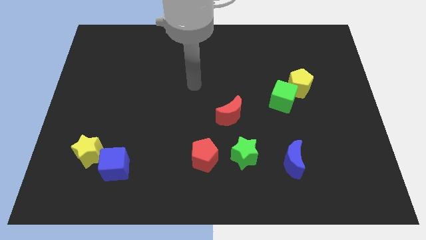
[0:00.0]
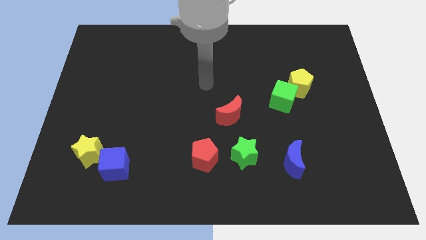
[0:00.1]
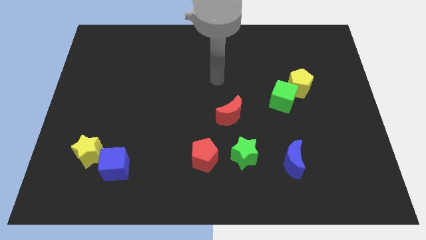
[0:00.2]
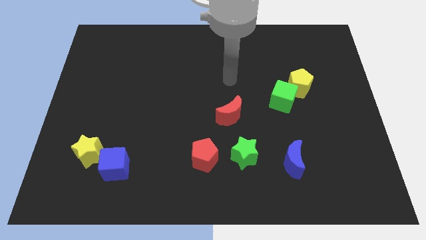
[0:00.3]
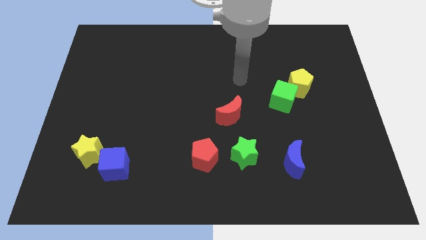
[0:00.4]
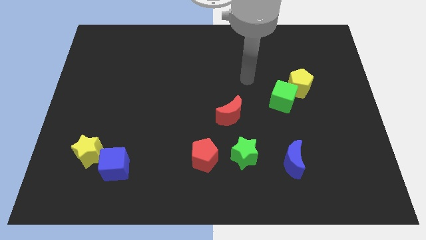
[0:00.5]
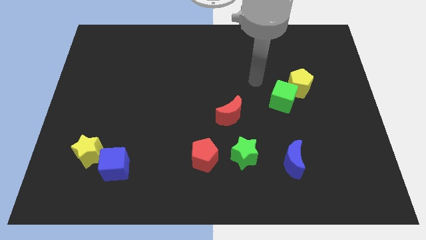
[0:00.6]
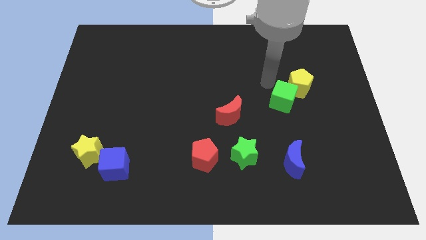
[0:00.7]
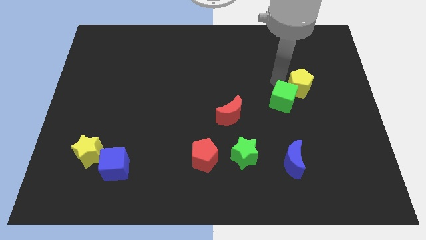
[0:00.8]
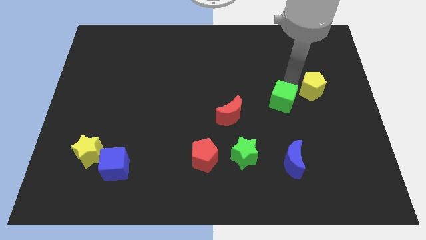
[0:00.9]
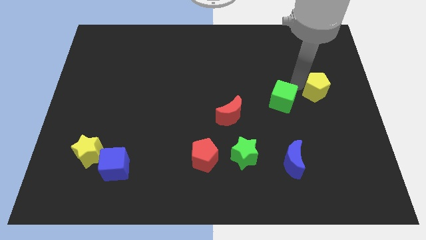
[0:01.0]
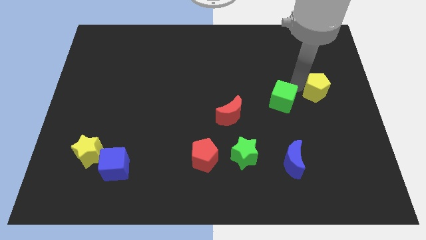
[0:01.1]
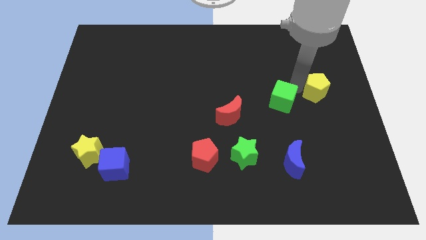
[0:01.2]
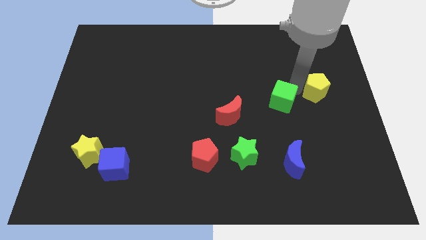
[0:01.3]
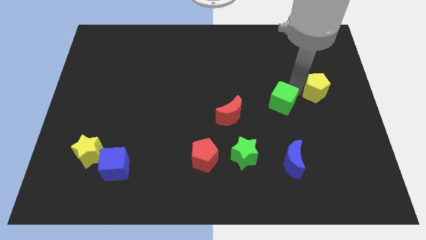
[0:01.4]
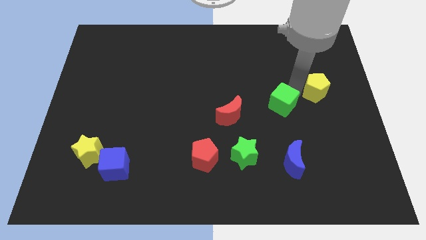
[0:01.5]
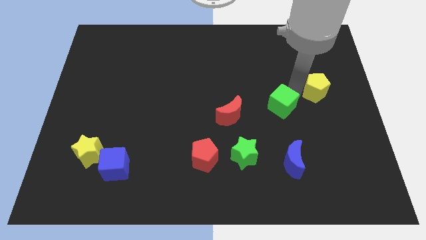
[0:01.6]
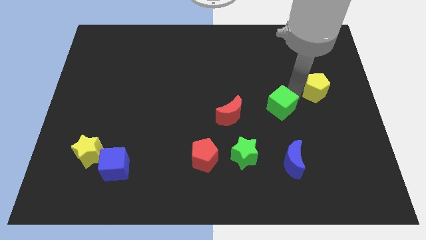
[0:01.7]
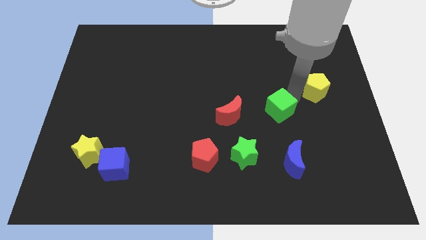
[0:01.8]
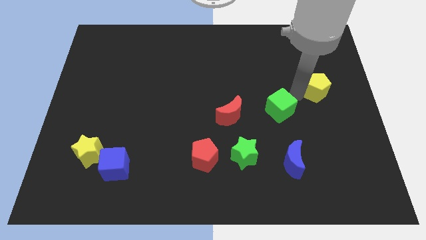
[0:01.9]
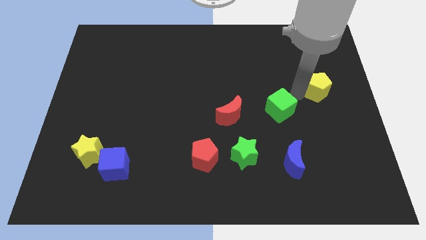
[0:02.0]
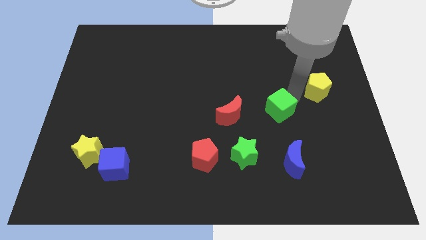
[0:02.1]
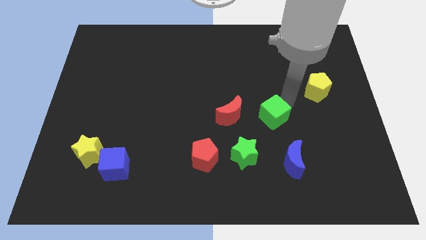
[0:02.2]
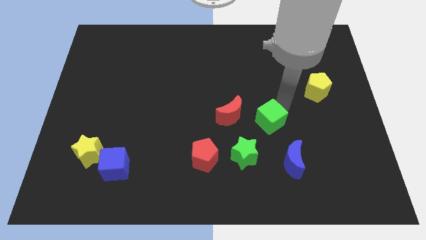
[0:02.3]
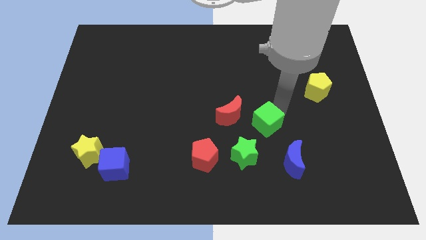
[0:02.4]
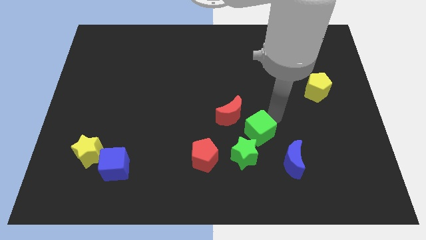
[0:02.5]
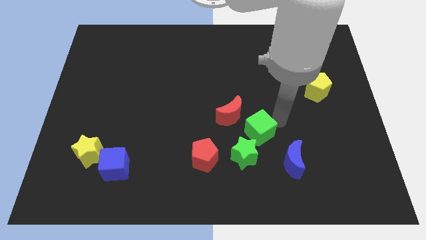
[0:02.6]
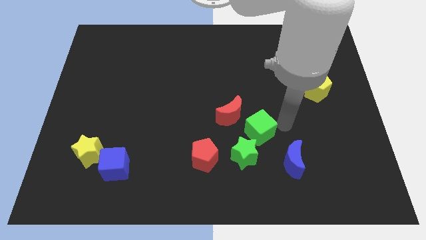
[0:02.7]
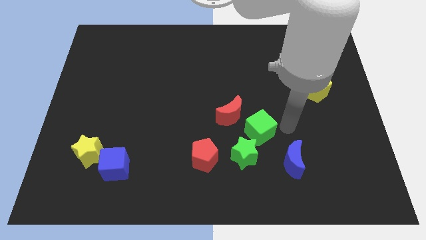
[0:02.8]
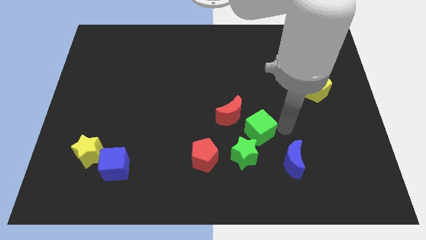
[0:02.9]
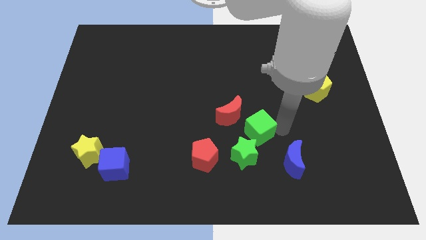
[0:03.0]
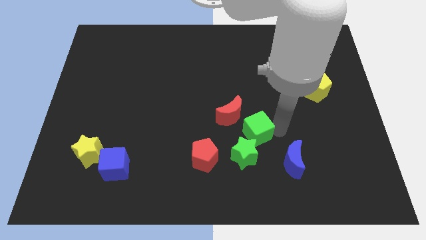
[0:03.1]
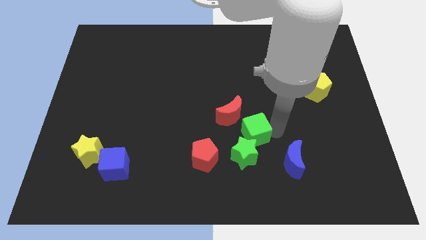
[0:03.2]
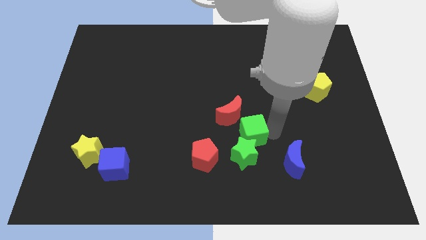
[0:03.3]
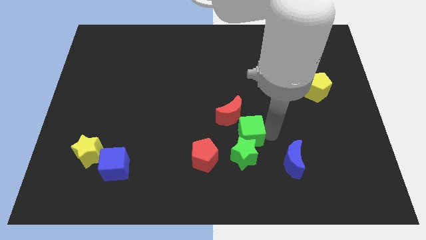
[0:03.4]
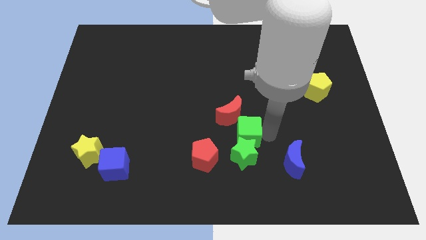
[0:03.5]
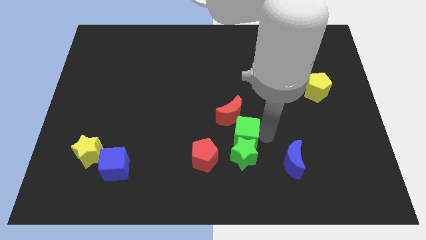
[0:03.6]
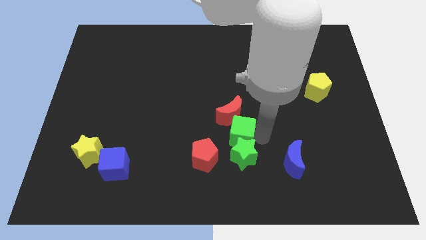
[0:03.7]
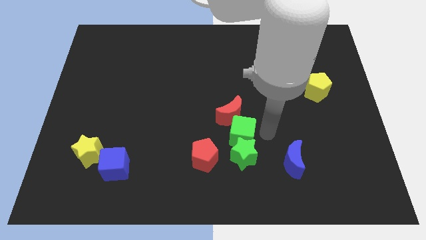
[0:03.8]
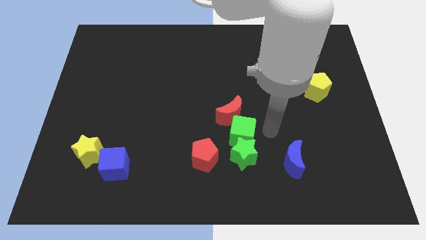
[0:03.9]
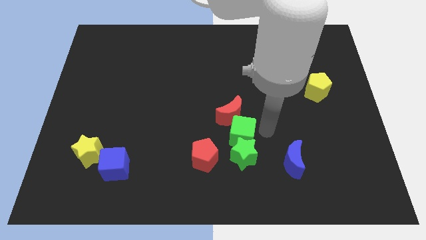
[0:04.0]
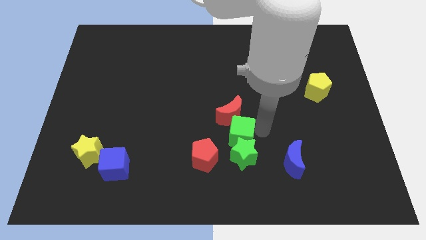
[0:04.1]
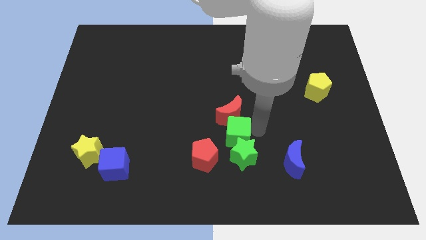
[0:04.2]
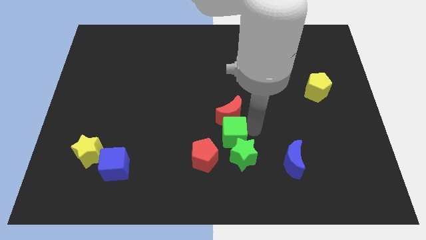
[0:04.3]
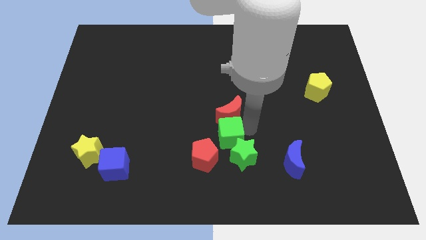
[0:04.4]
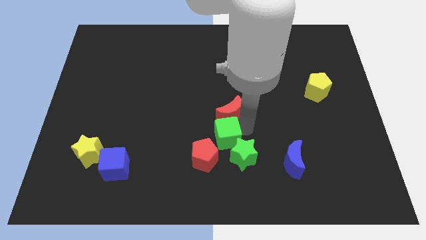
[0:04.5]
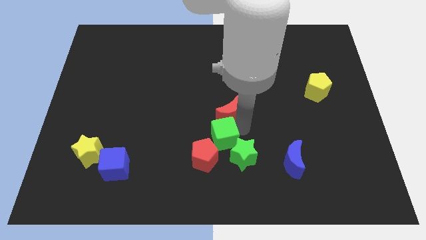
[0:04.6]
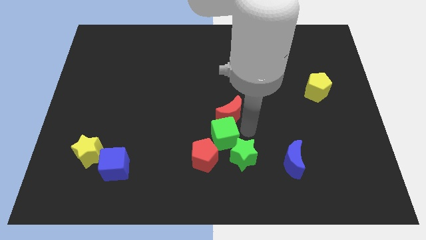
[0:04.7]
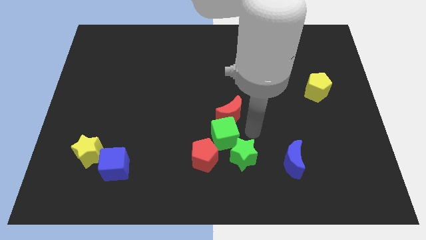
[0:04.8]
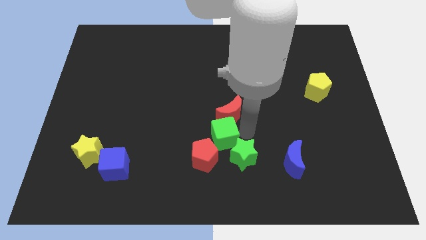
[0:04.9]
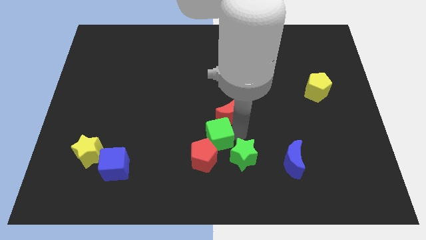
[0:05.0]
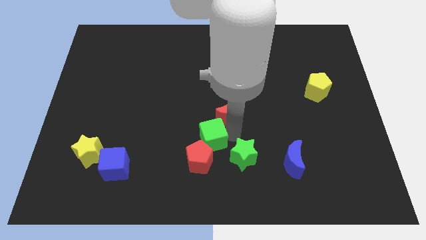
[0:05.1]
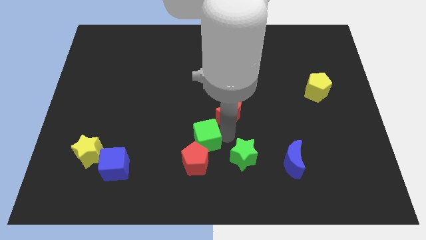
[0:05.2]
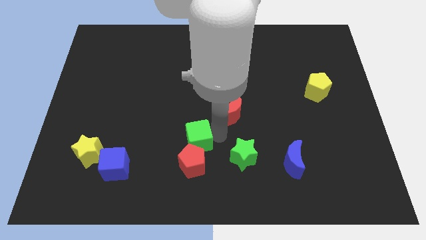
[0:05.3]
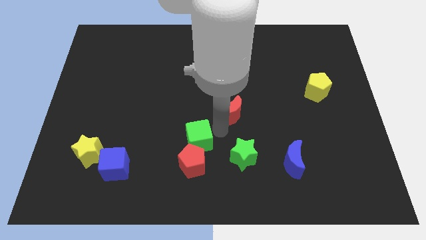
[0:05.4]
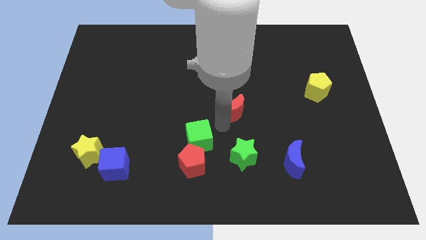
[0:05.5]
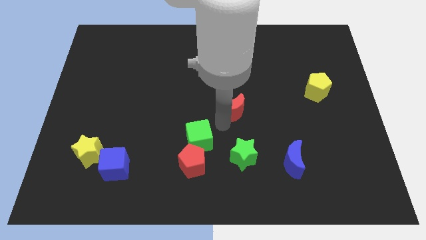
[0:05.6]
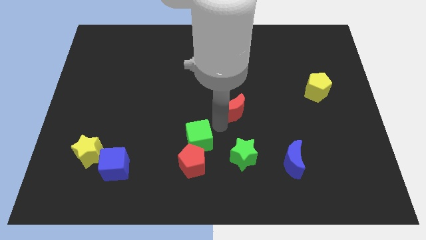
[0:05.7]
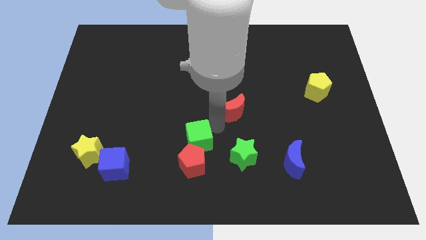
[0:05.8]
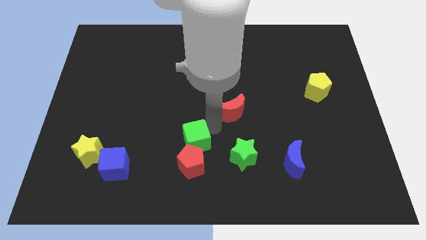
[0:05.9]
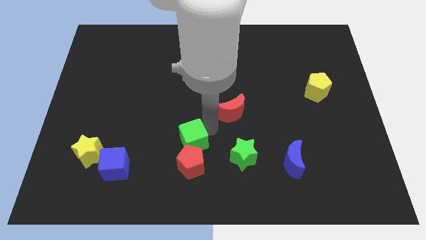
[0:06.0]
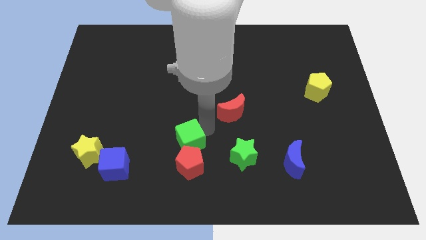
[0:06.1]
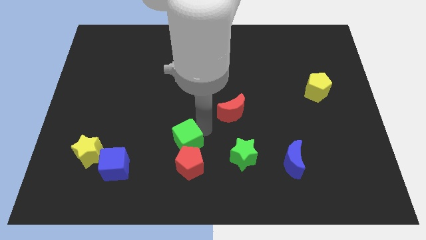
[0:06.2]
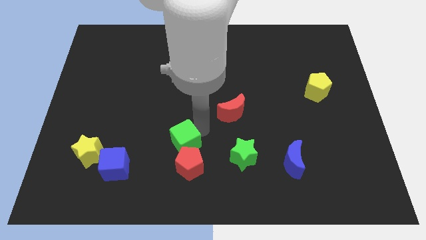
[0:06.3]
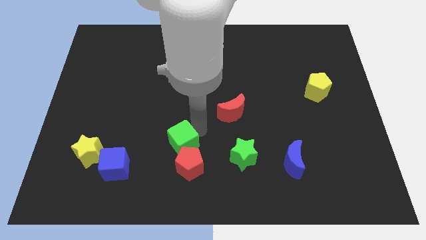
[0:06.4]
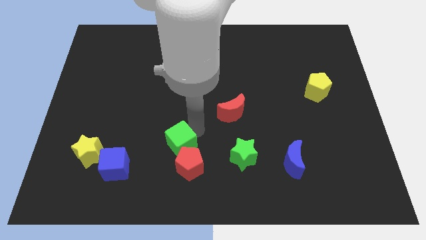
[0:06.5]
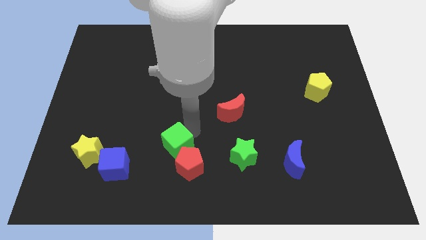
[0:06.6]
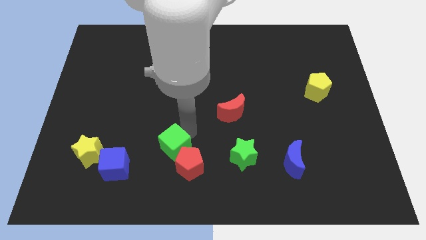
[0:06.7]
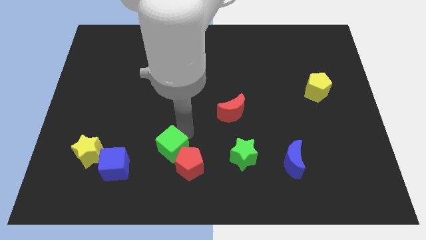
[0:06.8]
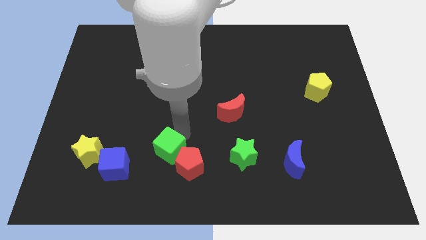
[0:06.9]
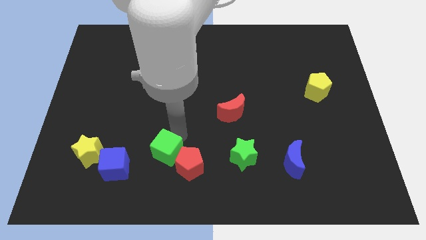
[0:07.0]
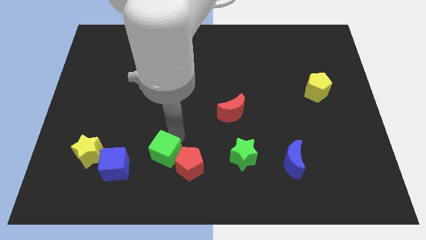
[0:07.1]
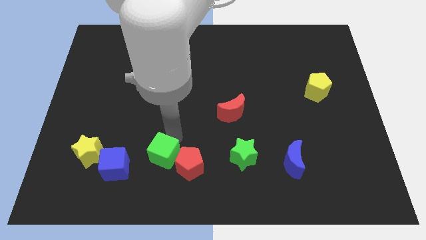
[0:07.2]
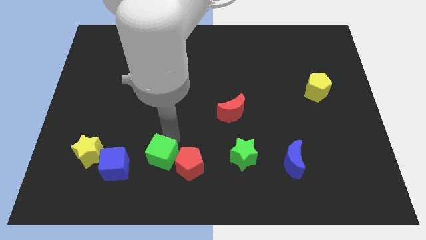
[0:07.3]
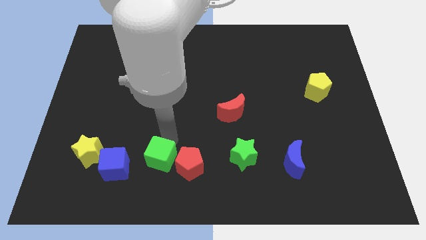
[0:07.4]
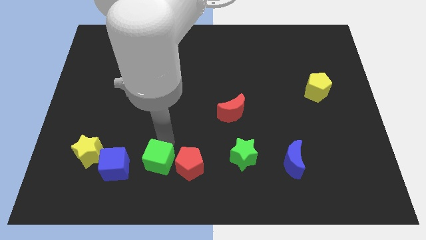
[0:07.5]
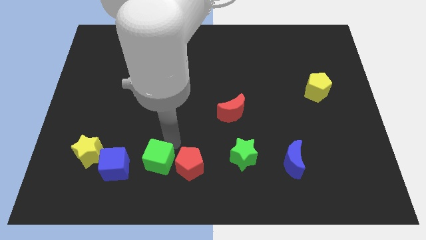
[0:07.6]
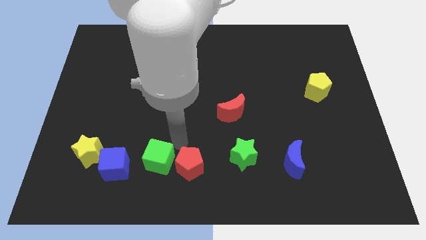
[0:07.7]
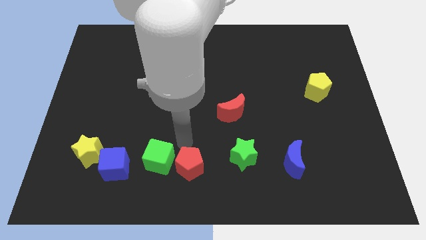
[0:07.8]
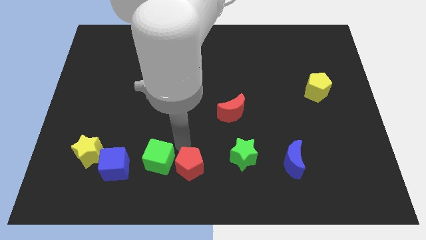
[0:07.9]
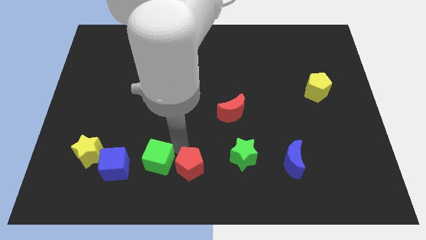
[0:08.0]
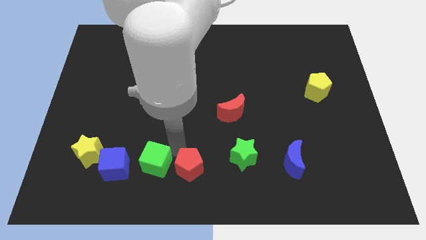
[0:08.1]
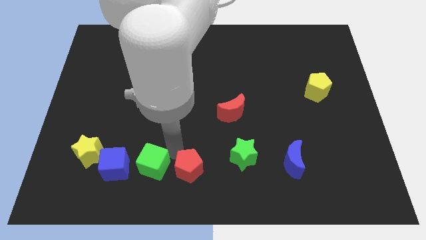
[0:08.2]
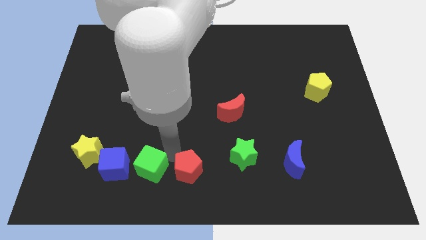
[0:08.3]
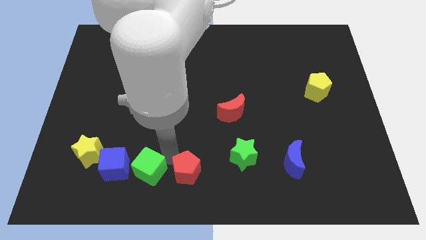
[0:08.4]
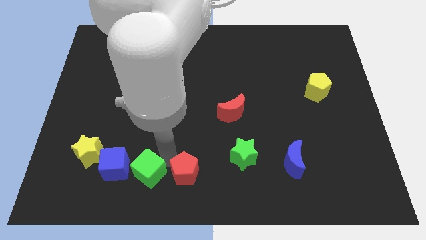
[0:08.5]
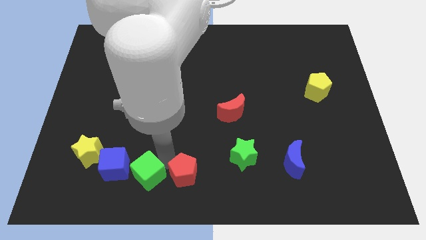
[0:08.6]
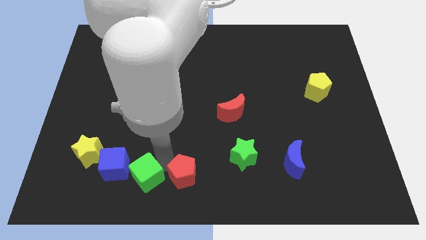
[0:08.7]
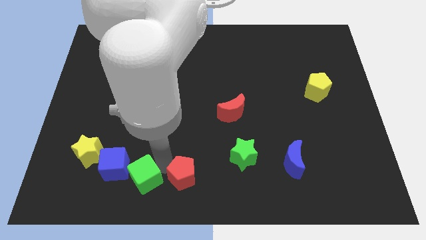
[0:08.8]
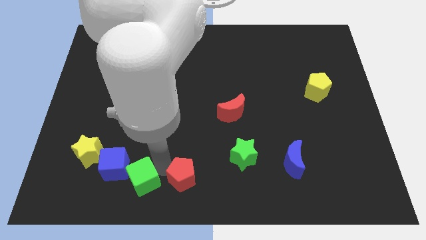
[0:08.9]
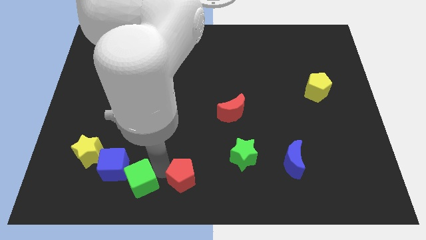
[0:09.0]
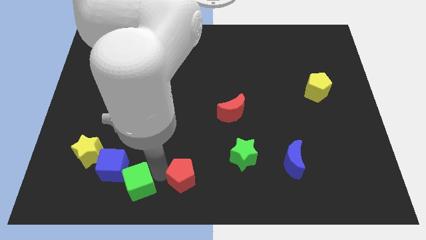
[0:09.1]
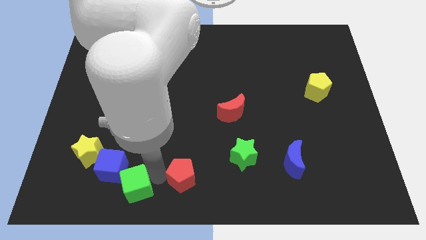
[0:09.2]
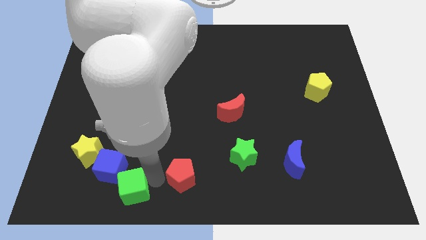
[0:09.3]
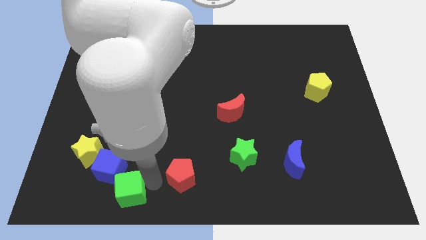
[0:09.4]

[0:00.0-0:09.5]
put the green cube to the bottom right of the yellow star
